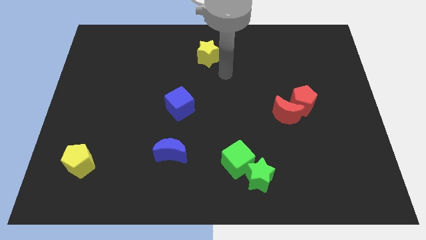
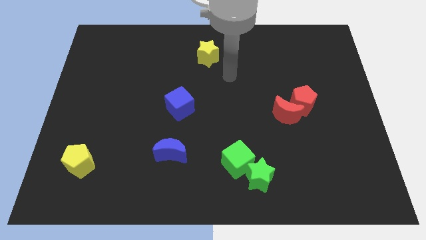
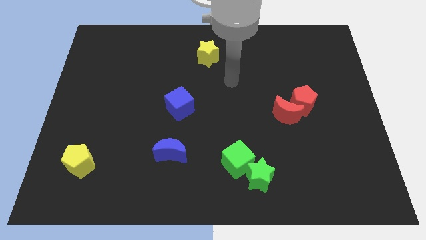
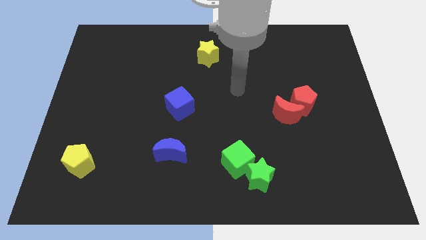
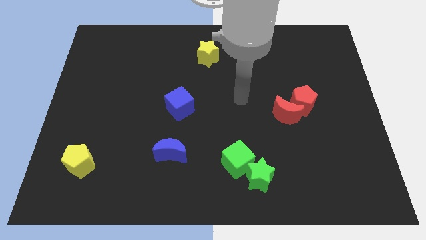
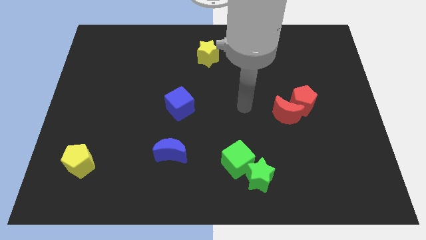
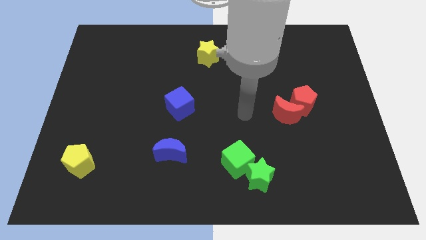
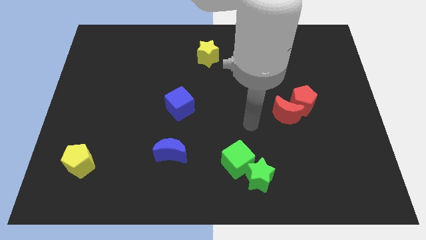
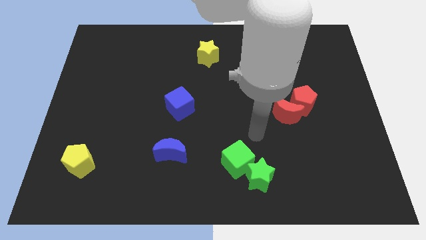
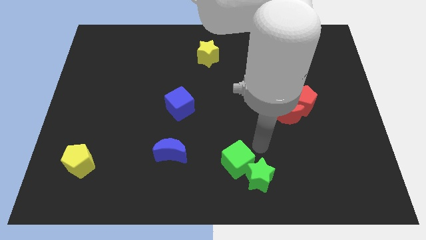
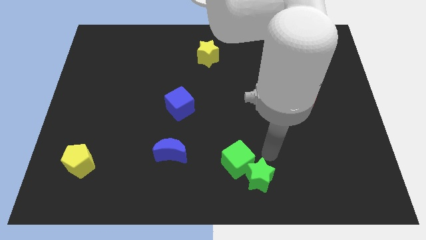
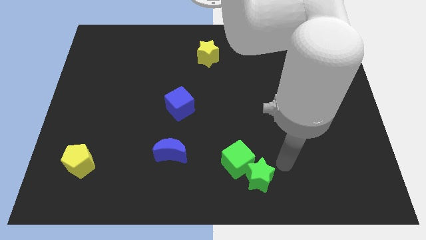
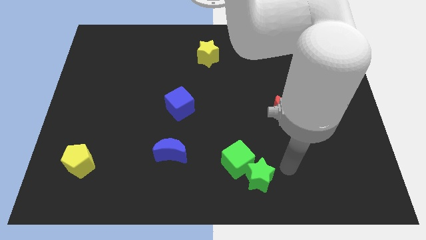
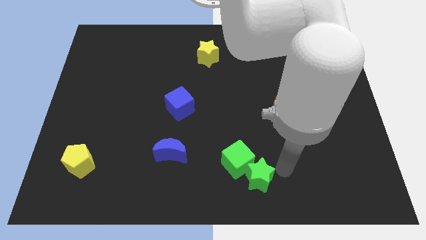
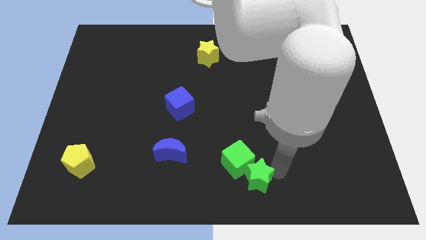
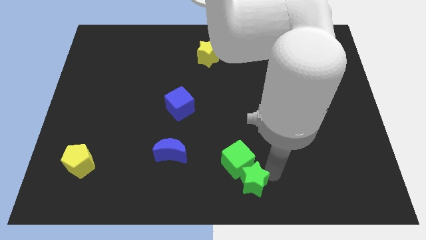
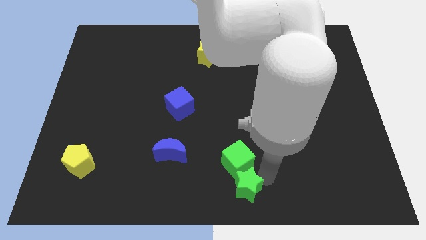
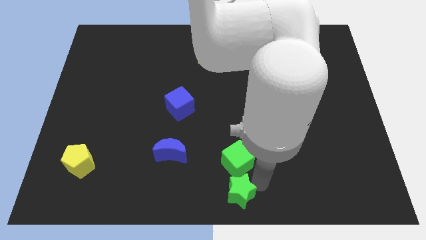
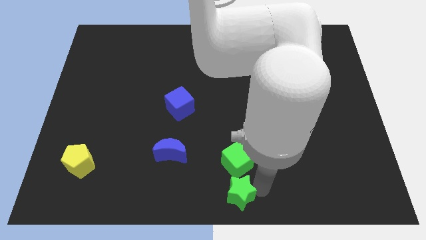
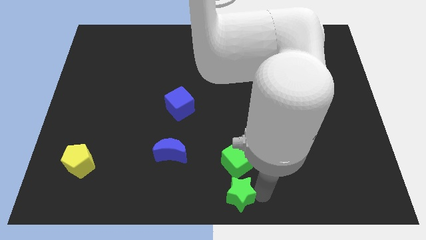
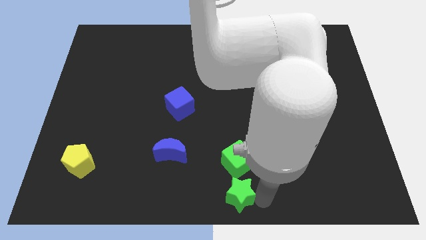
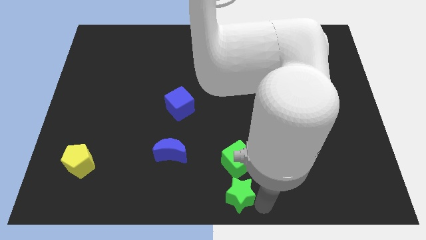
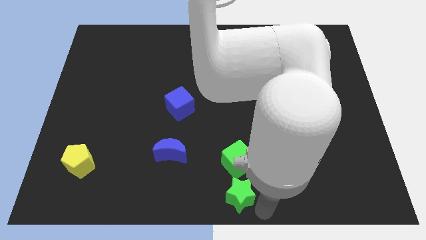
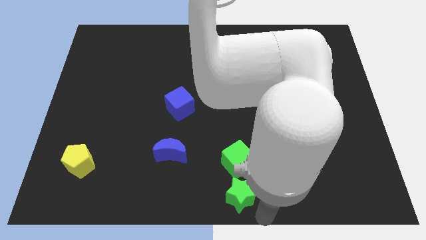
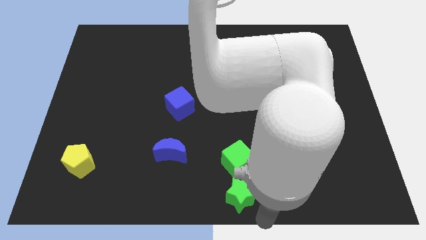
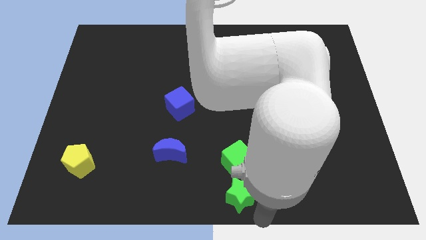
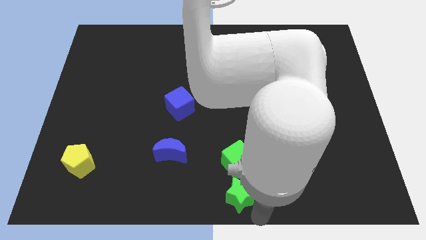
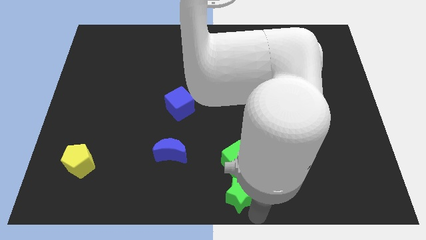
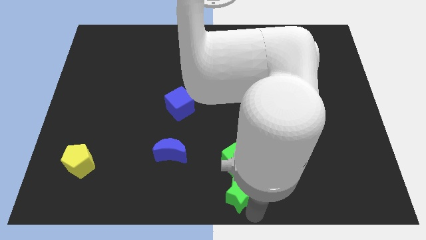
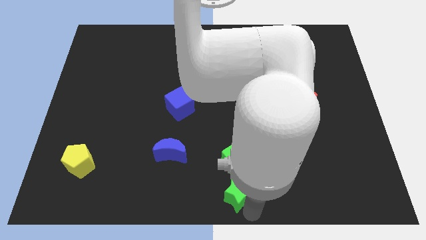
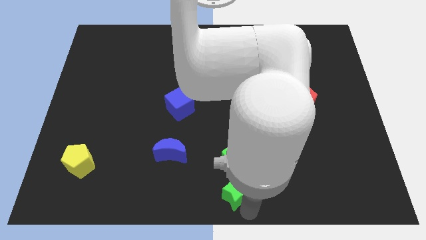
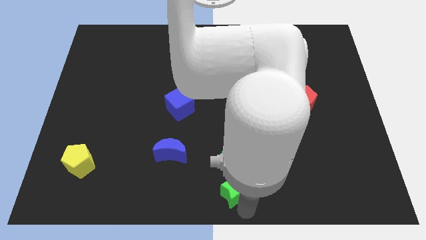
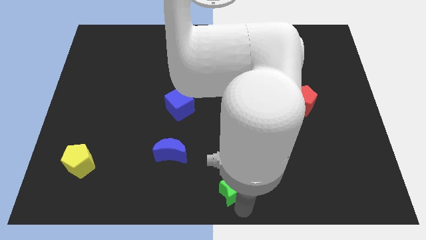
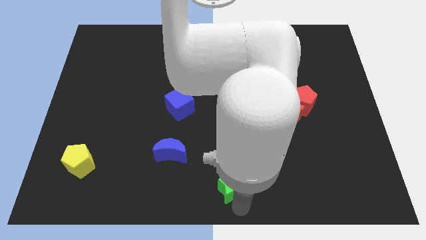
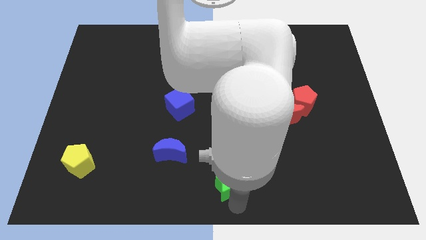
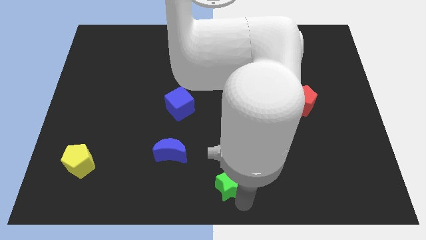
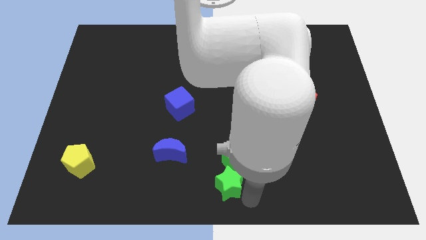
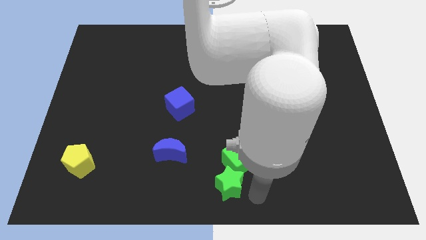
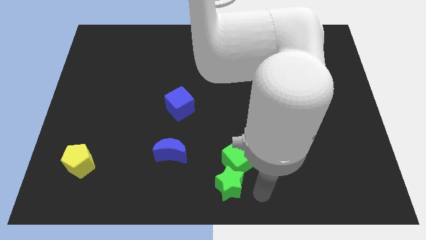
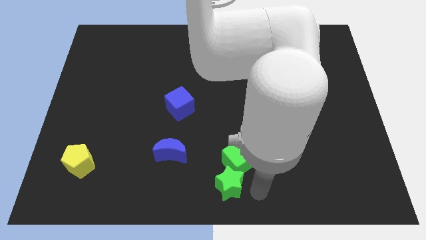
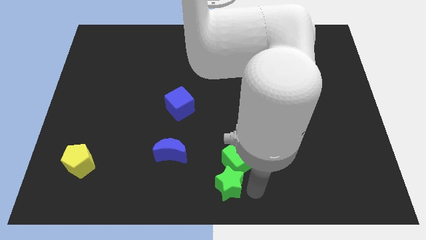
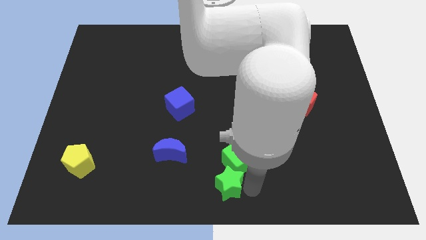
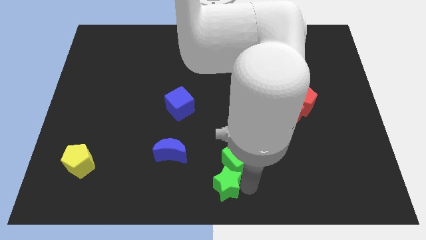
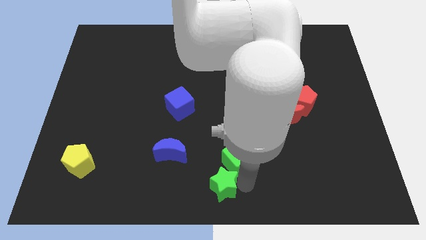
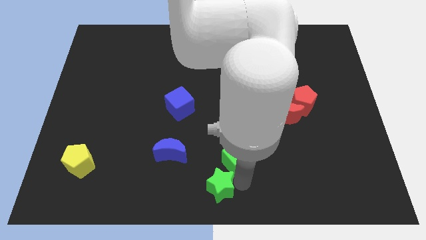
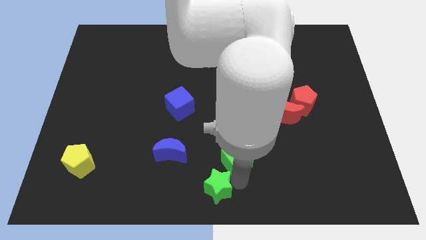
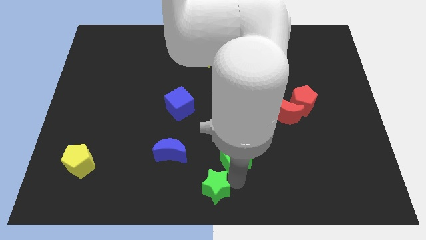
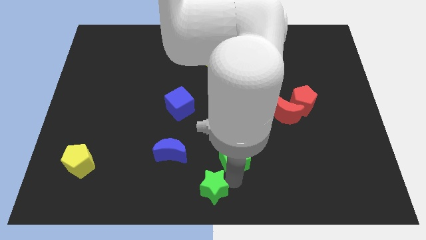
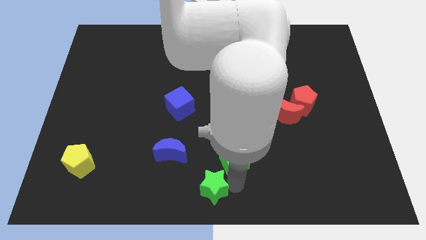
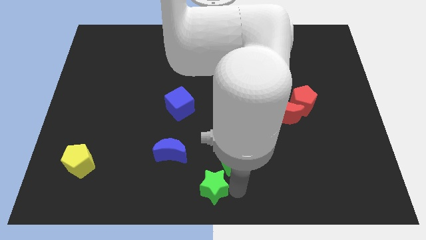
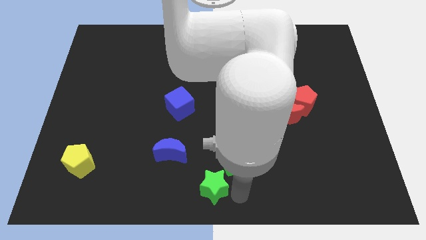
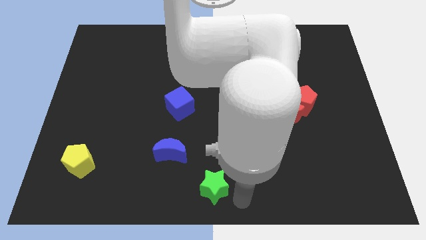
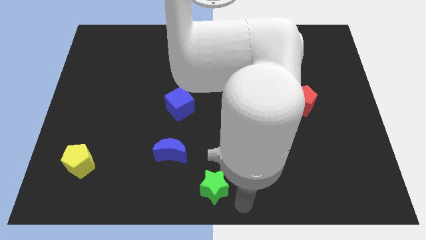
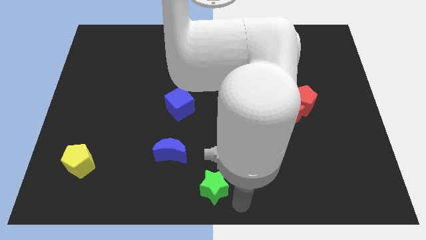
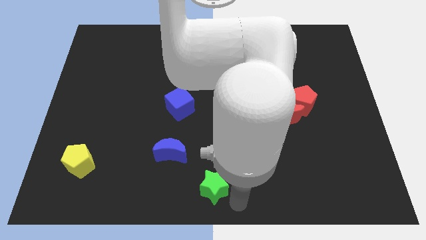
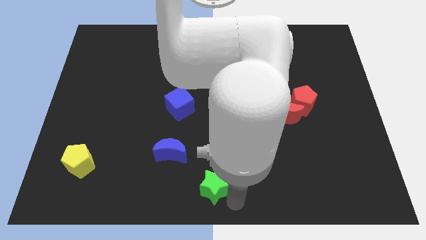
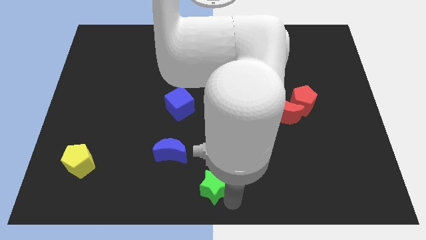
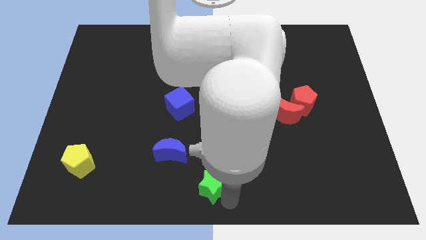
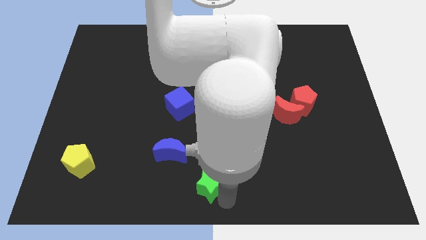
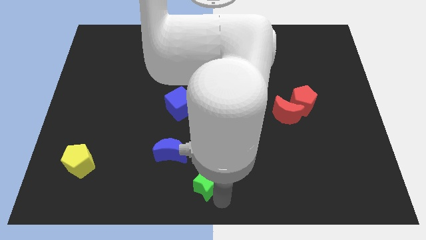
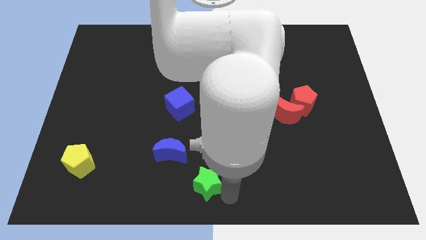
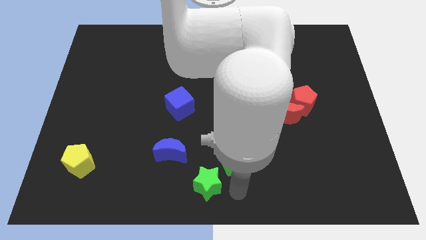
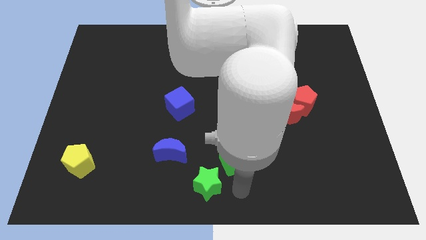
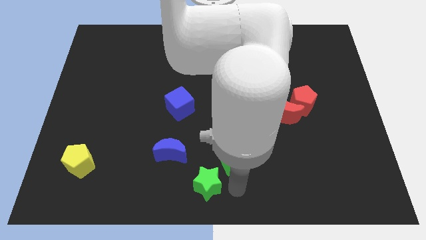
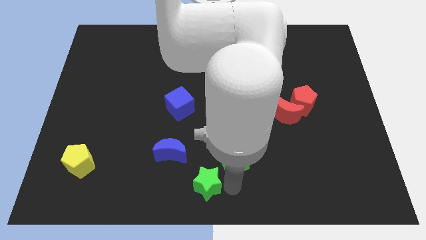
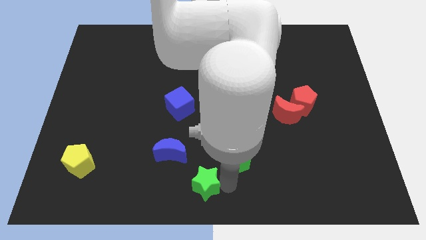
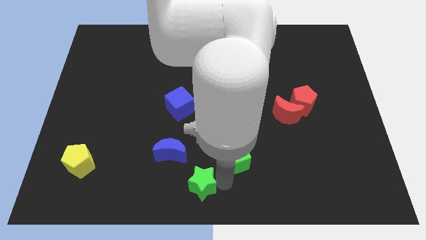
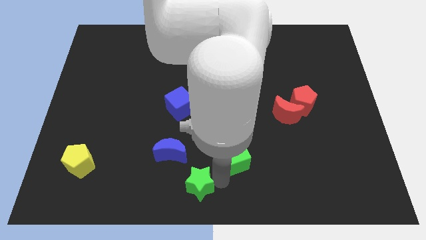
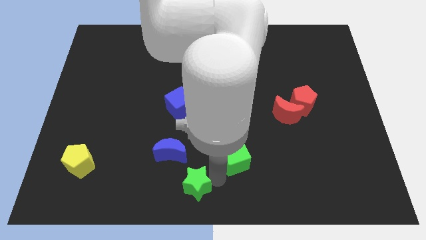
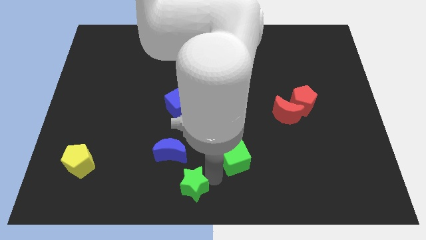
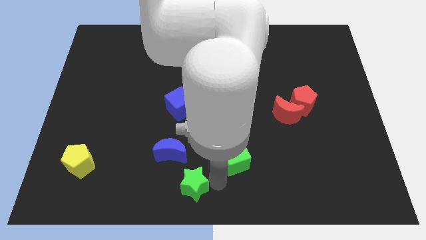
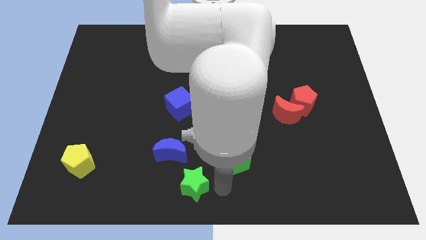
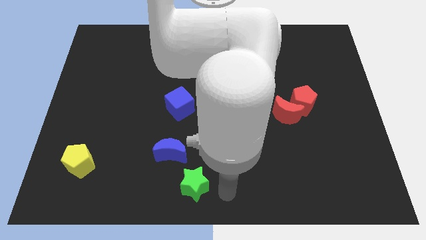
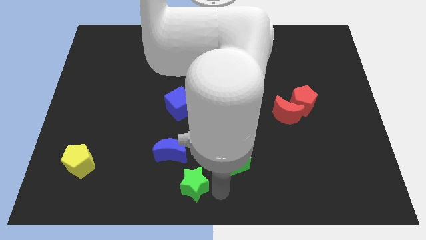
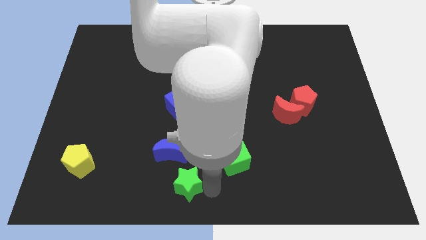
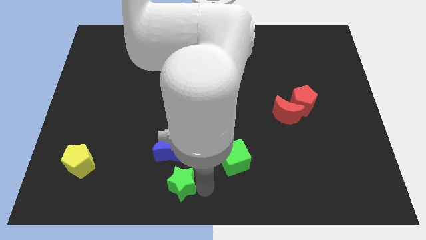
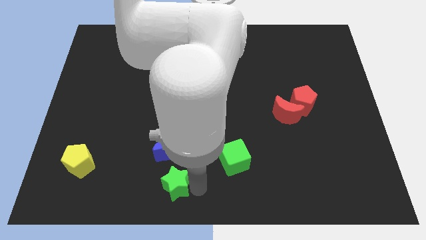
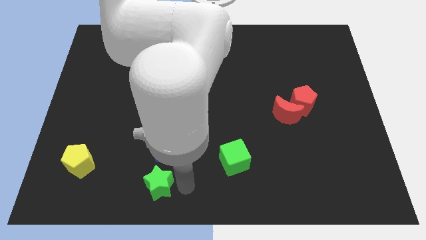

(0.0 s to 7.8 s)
move the green star to the left

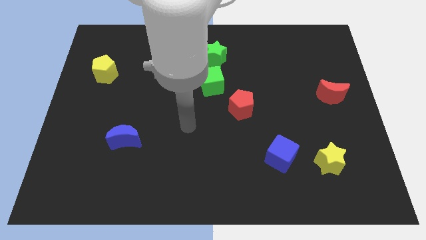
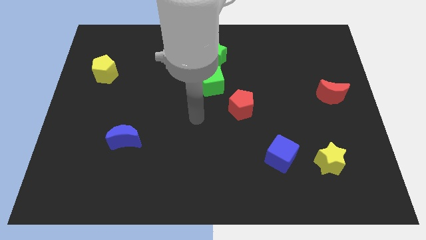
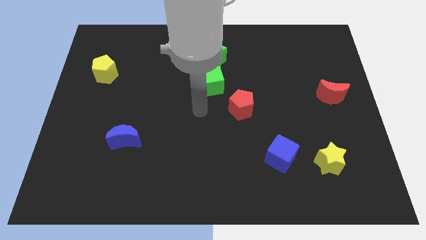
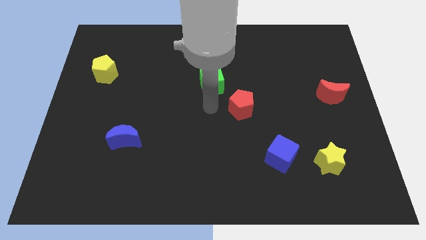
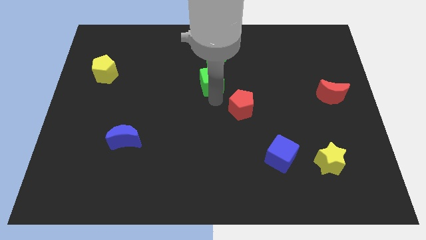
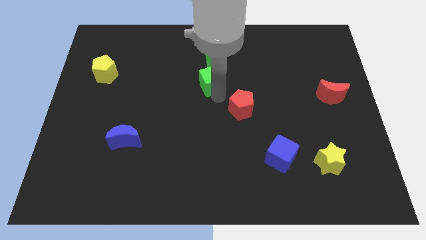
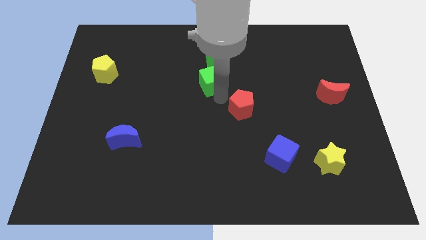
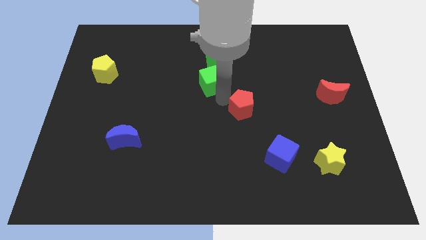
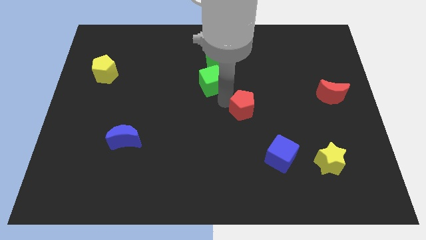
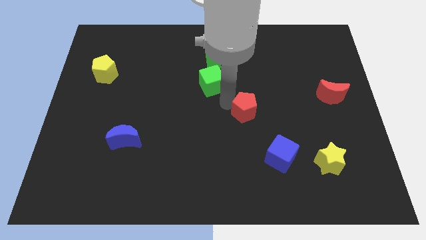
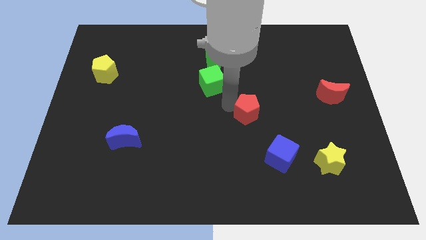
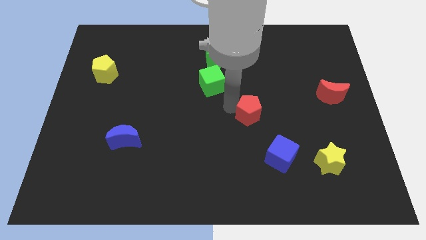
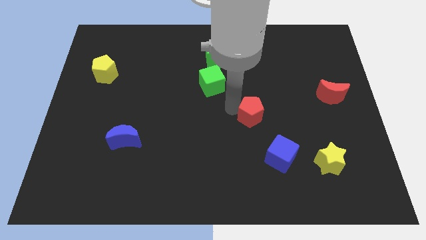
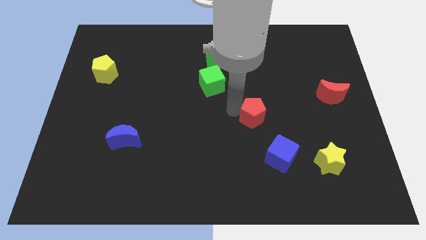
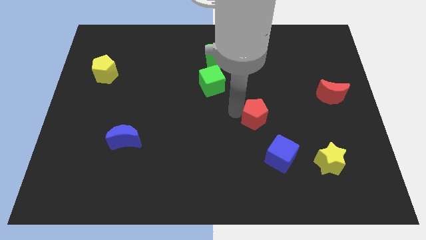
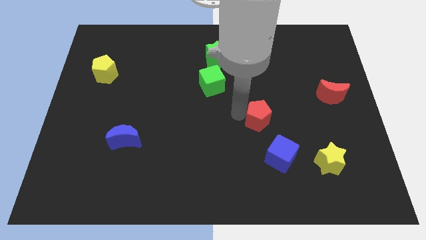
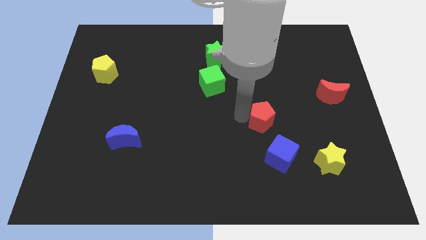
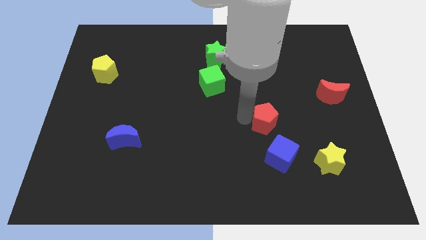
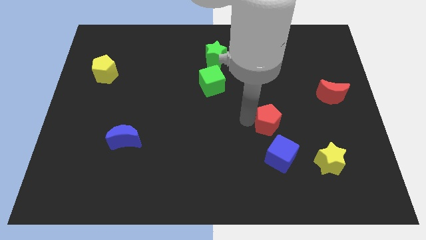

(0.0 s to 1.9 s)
move the red pentagon a little diagonally down and right
